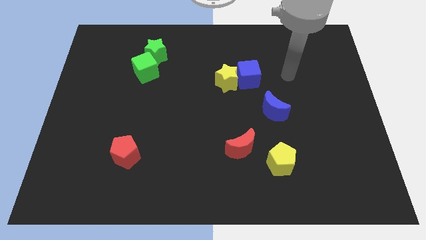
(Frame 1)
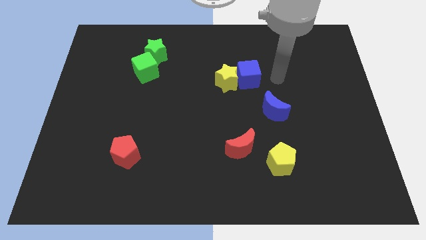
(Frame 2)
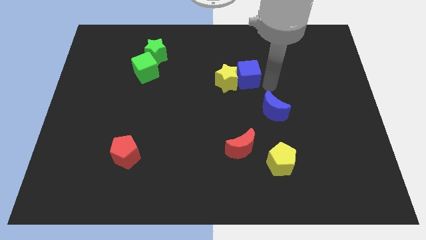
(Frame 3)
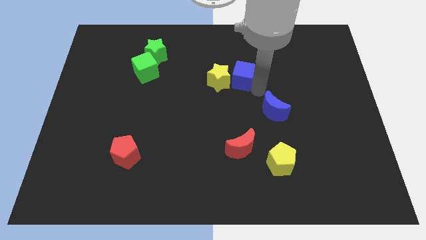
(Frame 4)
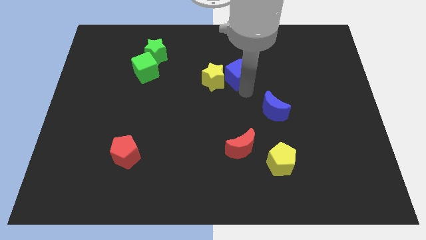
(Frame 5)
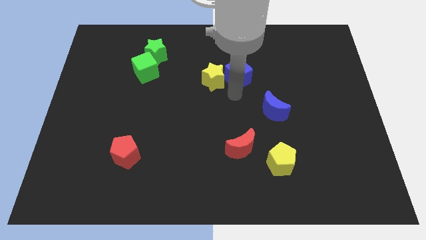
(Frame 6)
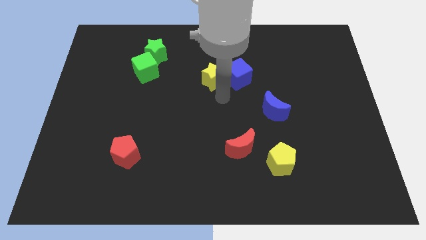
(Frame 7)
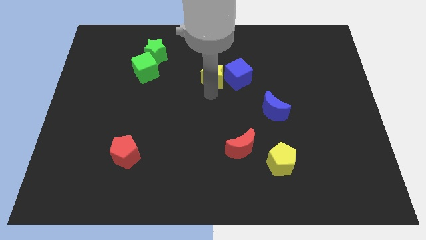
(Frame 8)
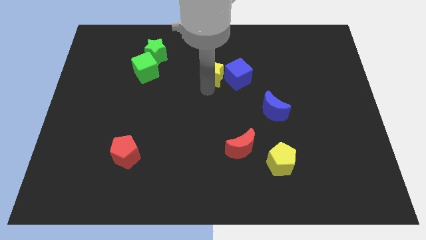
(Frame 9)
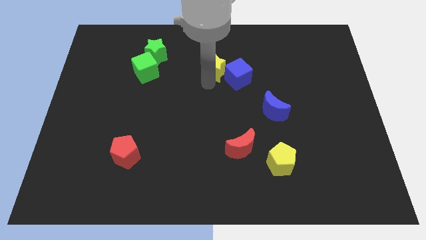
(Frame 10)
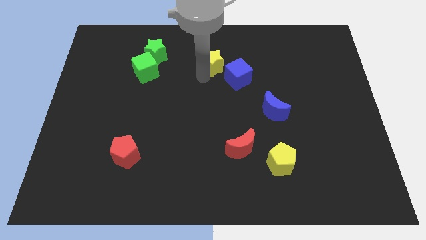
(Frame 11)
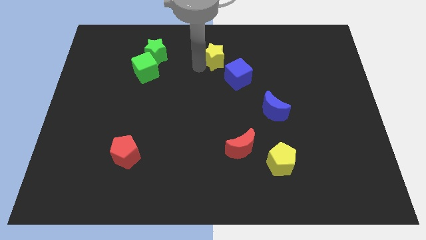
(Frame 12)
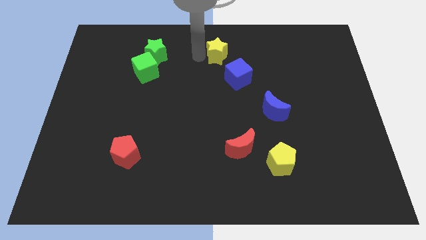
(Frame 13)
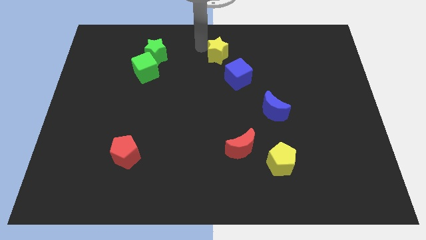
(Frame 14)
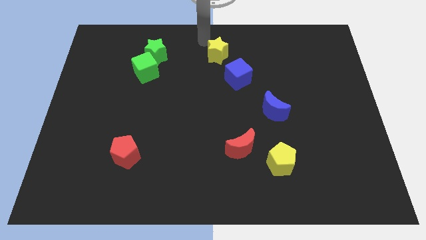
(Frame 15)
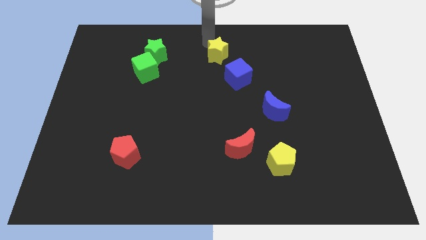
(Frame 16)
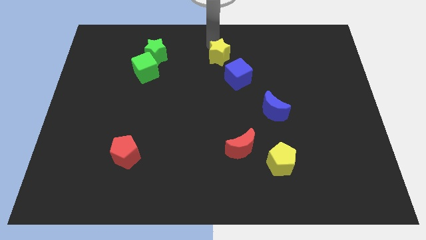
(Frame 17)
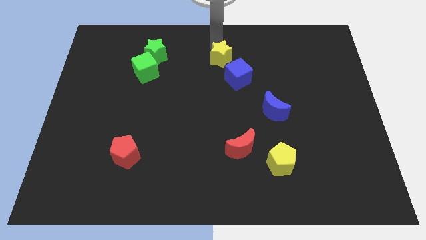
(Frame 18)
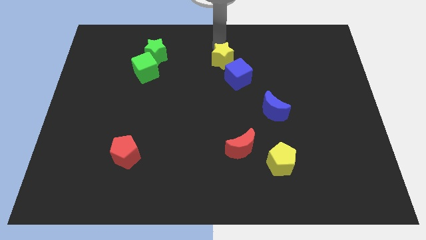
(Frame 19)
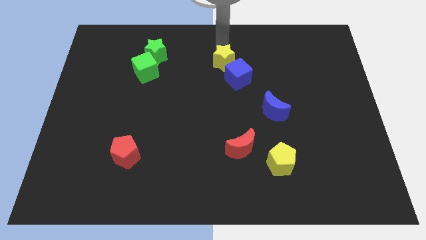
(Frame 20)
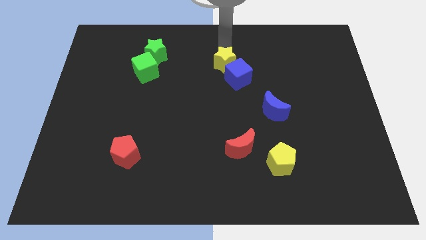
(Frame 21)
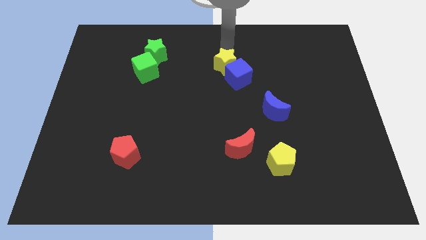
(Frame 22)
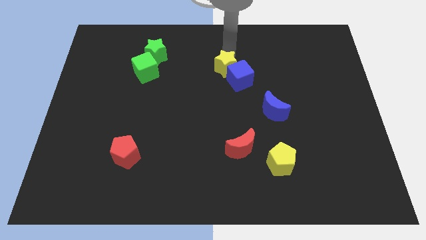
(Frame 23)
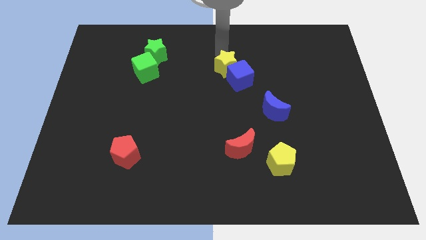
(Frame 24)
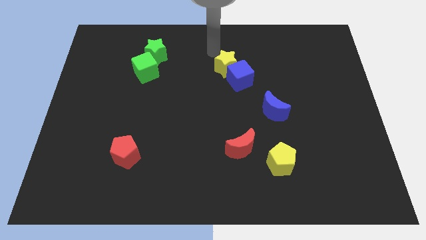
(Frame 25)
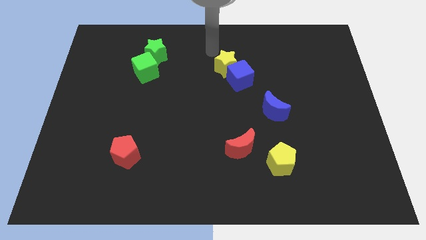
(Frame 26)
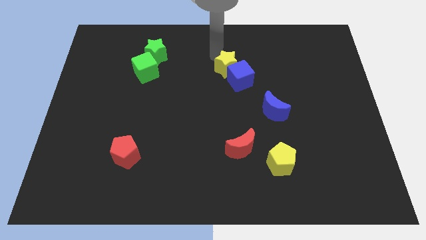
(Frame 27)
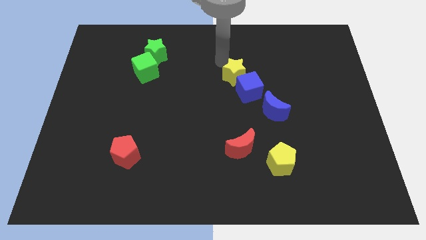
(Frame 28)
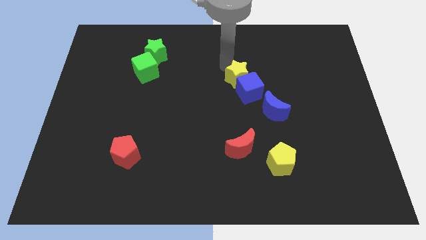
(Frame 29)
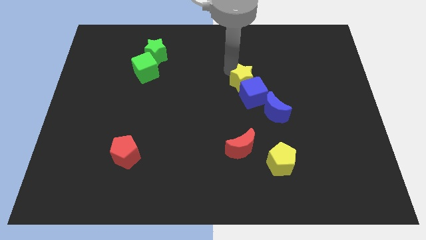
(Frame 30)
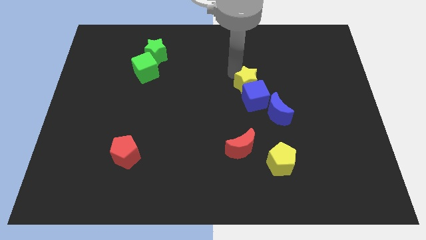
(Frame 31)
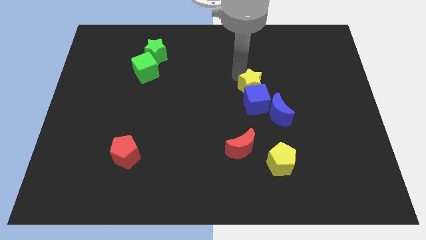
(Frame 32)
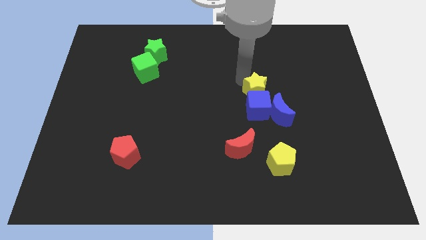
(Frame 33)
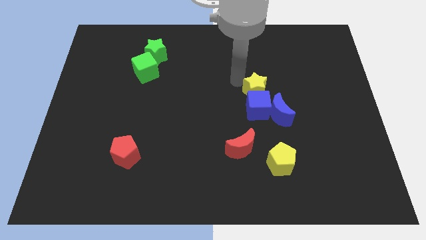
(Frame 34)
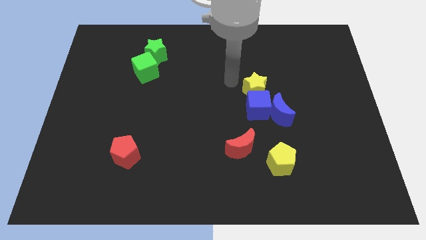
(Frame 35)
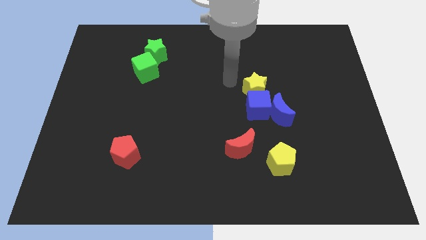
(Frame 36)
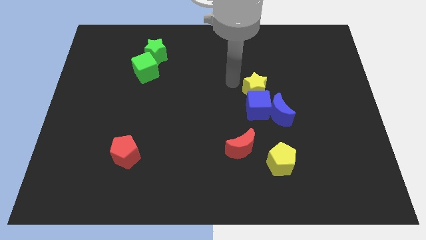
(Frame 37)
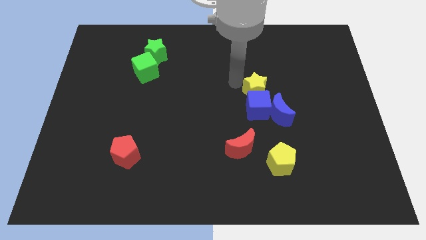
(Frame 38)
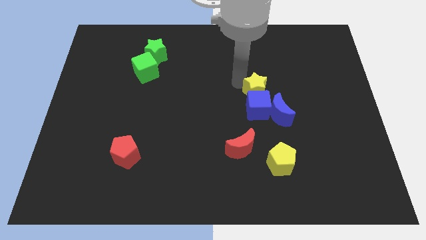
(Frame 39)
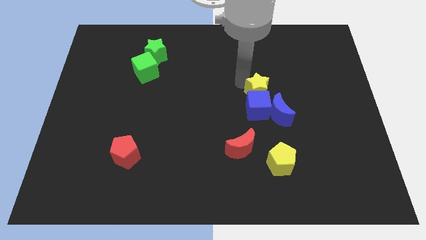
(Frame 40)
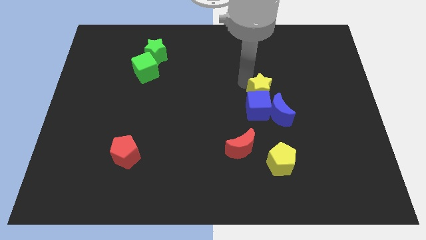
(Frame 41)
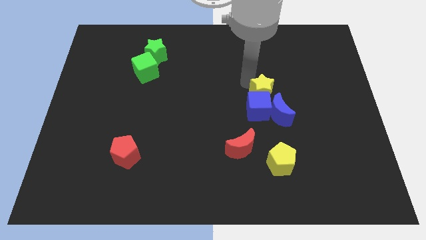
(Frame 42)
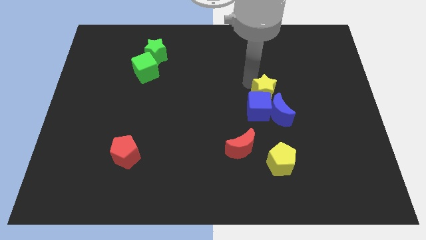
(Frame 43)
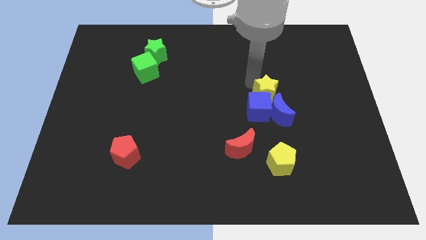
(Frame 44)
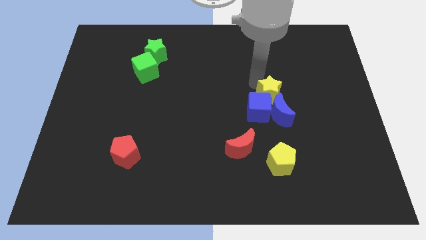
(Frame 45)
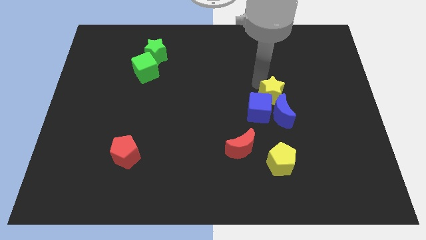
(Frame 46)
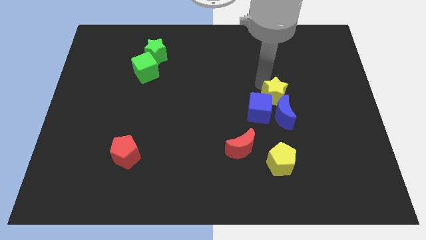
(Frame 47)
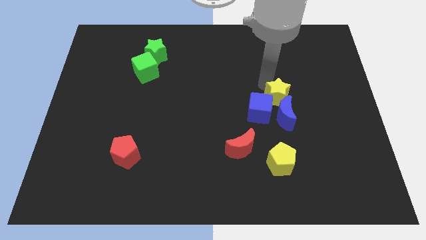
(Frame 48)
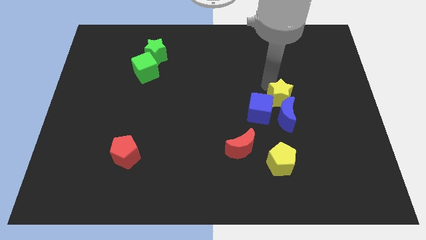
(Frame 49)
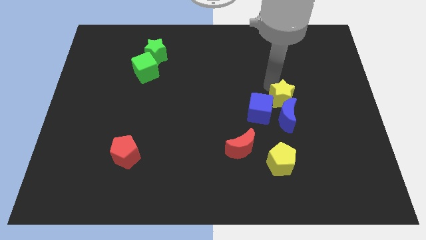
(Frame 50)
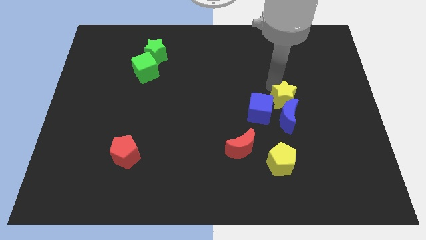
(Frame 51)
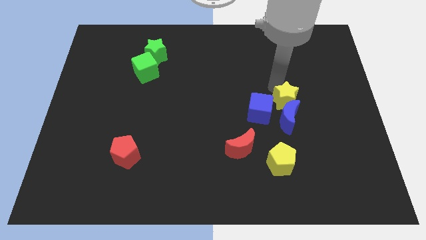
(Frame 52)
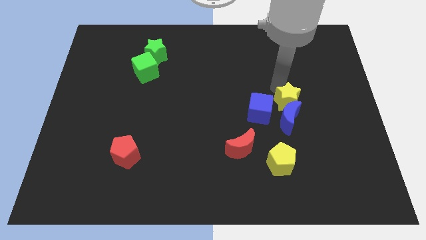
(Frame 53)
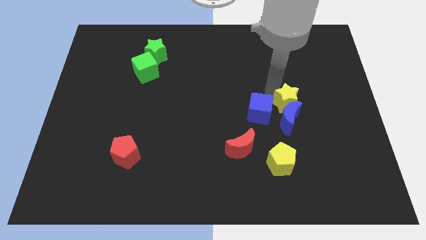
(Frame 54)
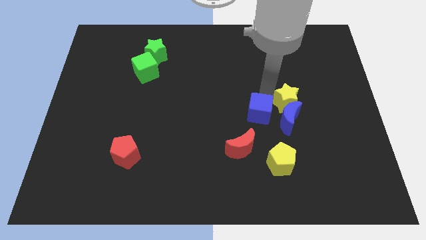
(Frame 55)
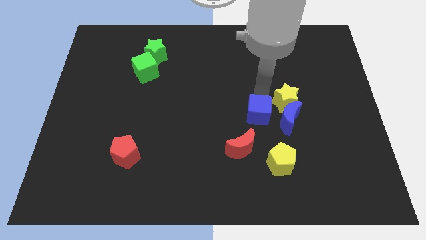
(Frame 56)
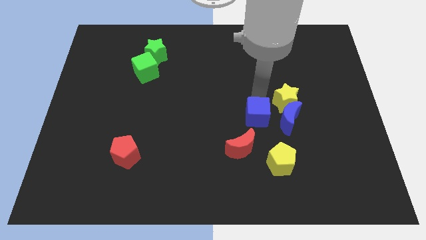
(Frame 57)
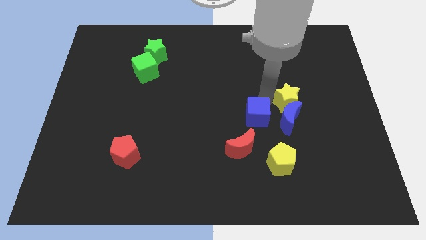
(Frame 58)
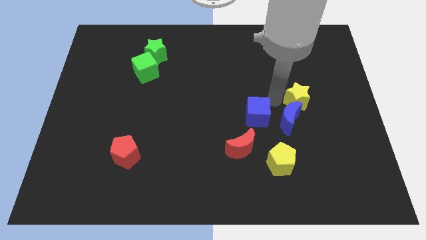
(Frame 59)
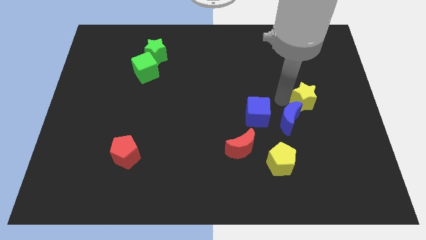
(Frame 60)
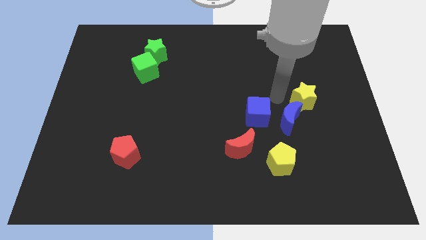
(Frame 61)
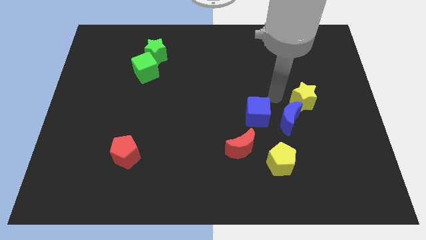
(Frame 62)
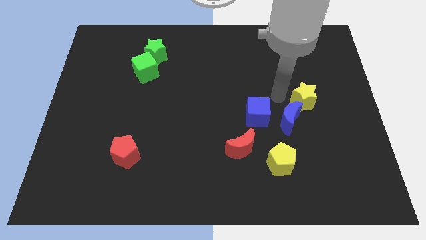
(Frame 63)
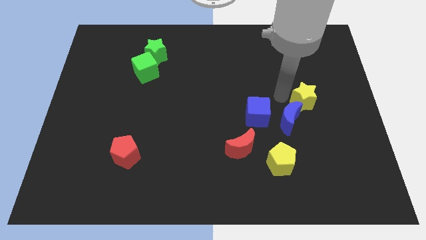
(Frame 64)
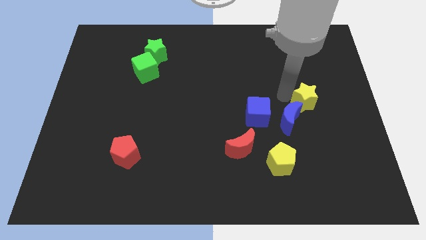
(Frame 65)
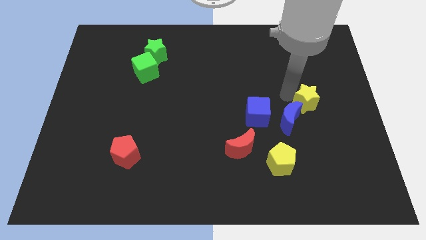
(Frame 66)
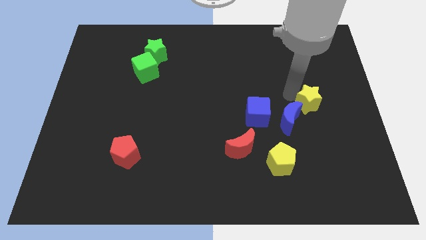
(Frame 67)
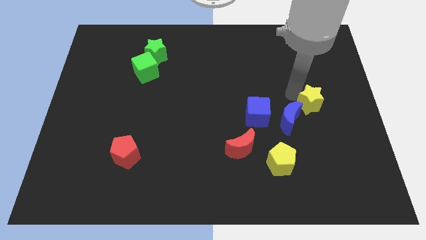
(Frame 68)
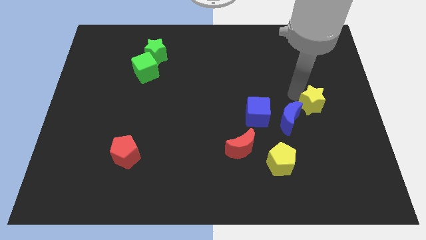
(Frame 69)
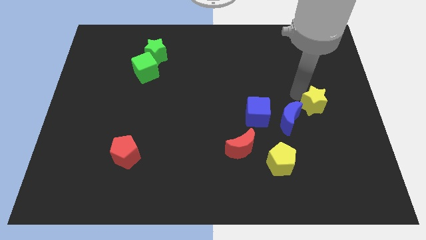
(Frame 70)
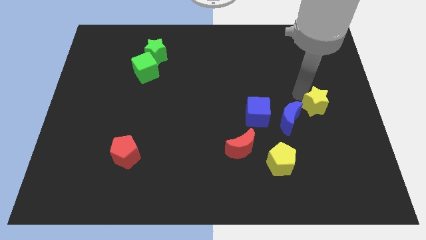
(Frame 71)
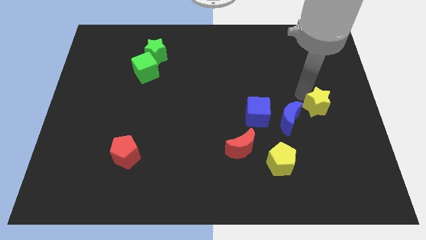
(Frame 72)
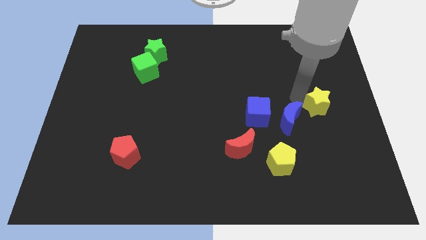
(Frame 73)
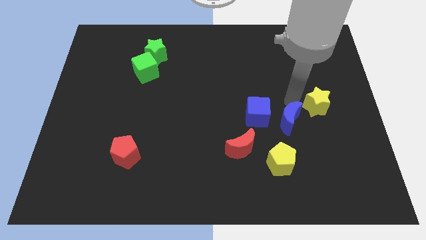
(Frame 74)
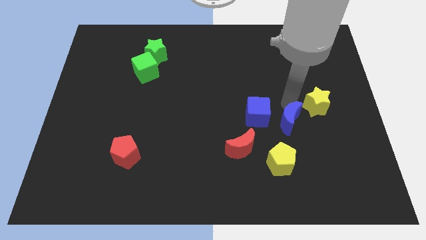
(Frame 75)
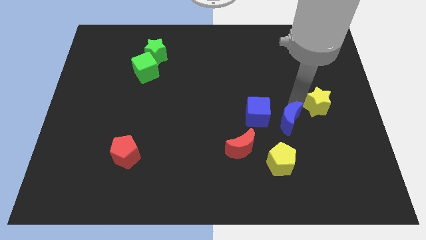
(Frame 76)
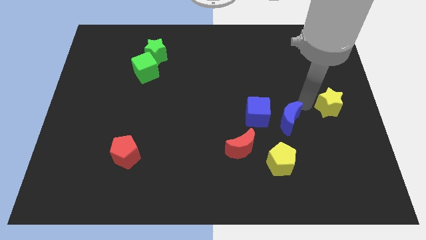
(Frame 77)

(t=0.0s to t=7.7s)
move the yellow star to the right side
